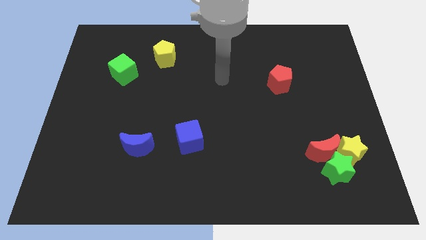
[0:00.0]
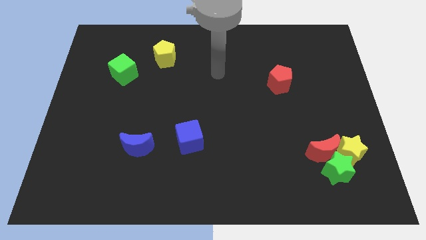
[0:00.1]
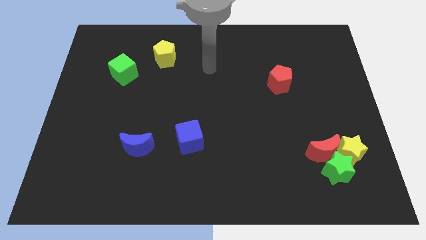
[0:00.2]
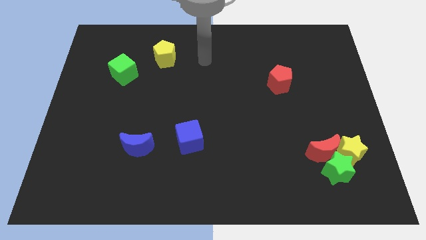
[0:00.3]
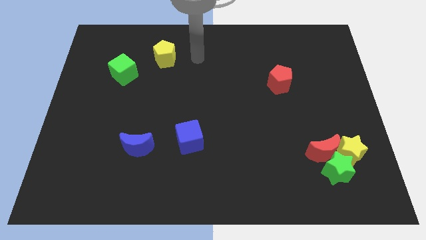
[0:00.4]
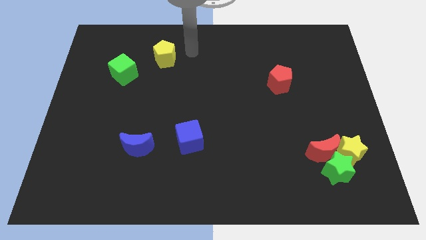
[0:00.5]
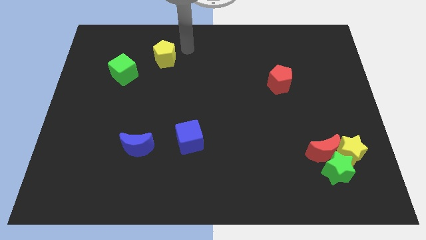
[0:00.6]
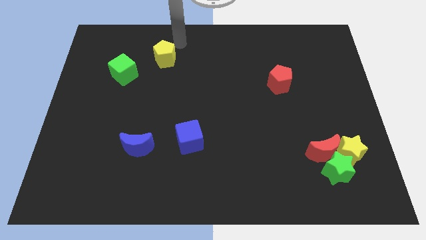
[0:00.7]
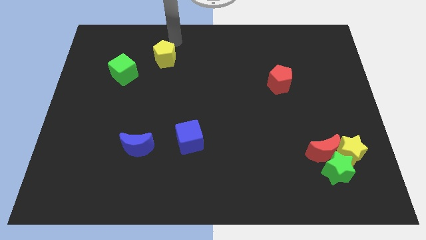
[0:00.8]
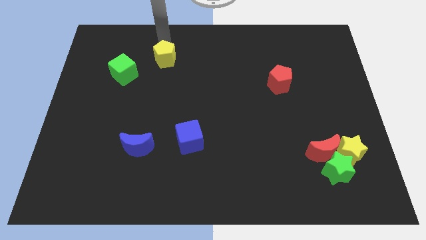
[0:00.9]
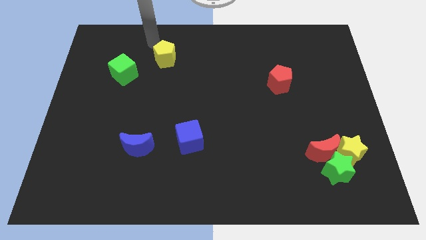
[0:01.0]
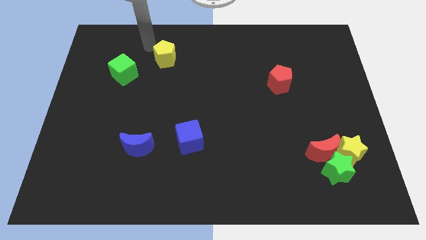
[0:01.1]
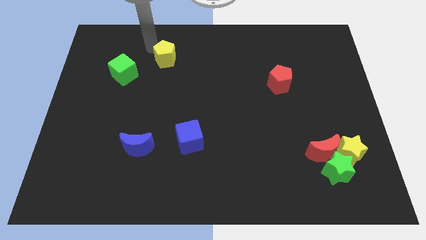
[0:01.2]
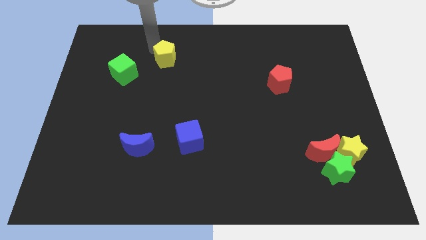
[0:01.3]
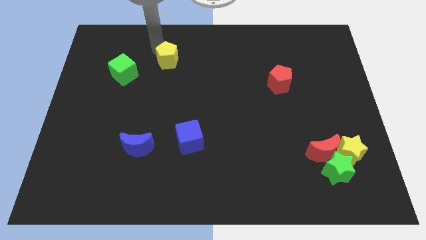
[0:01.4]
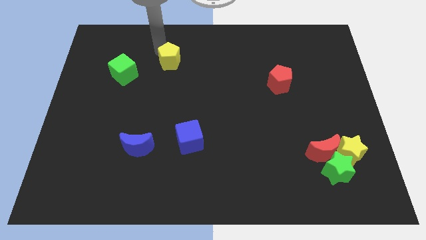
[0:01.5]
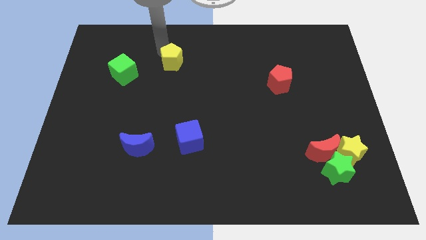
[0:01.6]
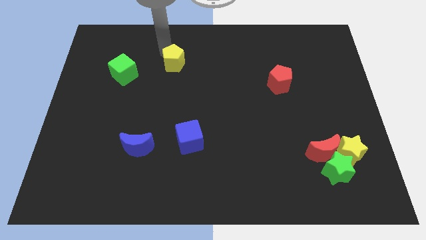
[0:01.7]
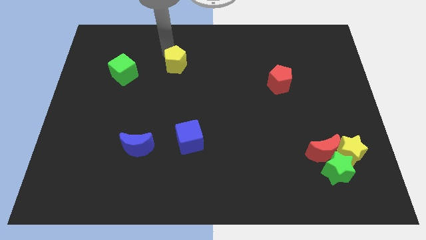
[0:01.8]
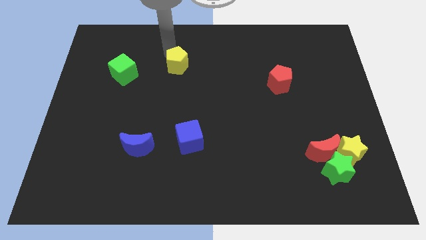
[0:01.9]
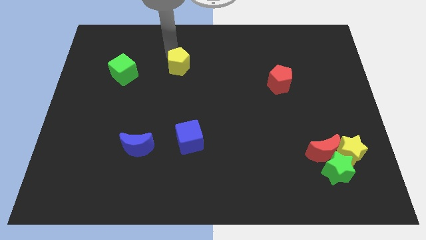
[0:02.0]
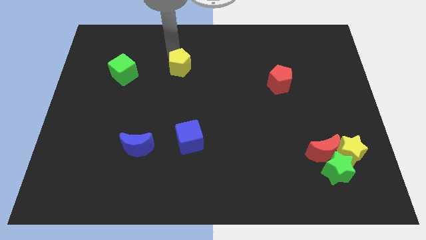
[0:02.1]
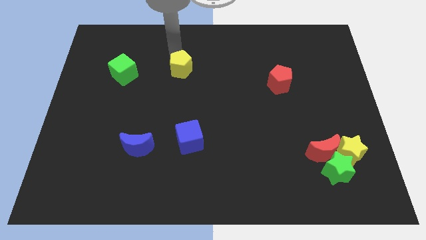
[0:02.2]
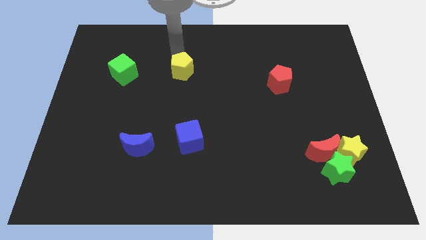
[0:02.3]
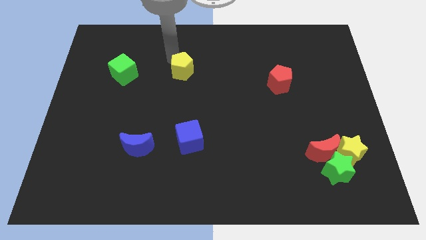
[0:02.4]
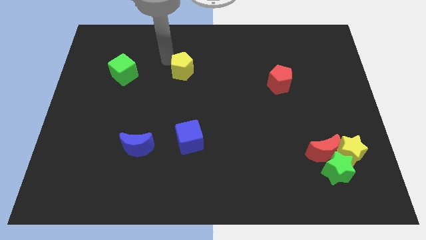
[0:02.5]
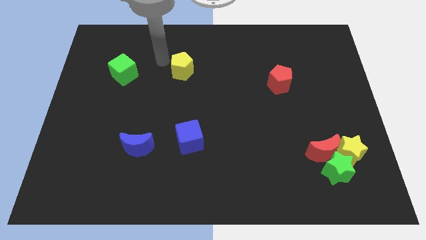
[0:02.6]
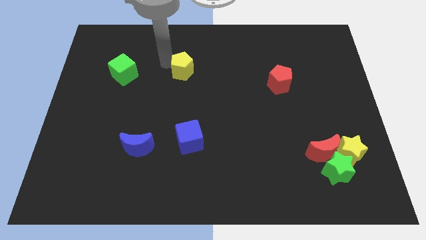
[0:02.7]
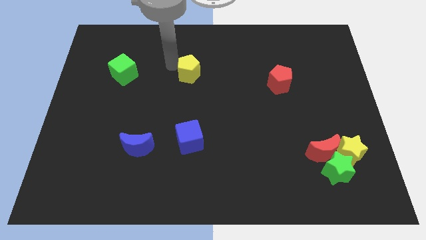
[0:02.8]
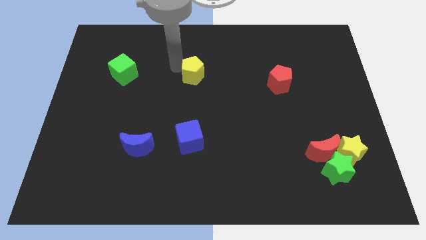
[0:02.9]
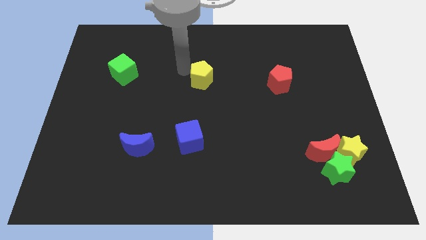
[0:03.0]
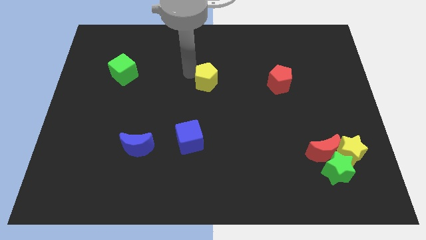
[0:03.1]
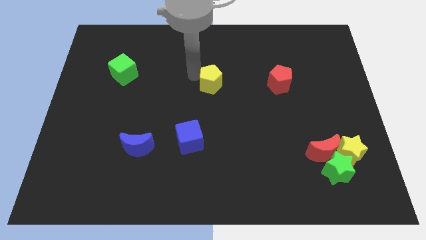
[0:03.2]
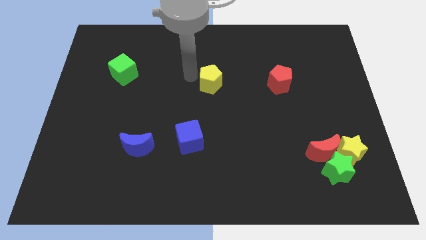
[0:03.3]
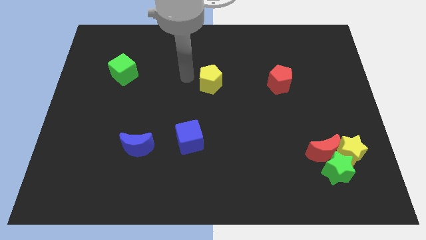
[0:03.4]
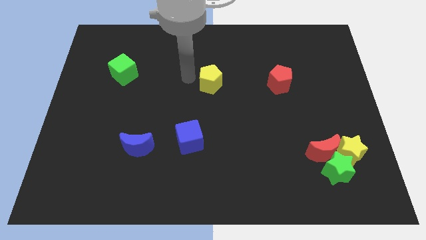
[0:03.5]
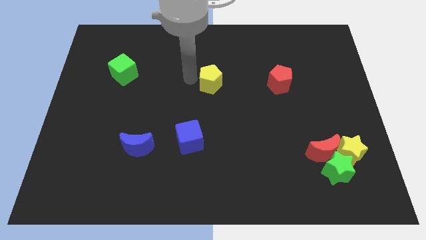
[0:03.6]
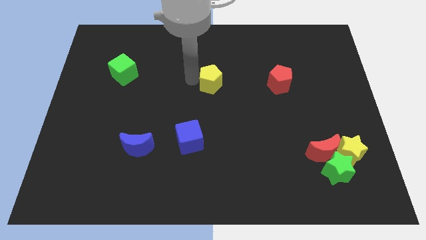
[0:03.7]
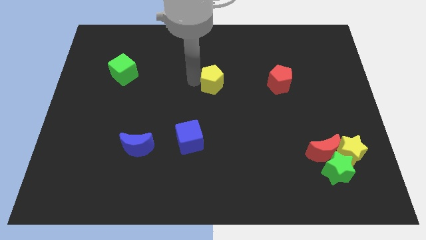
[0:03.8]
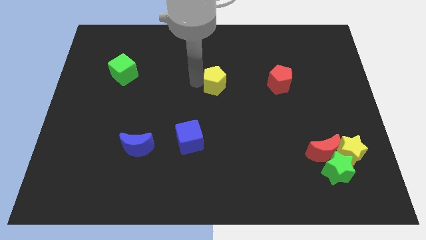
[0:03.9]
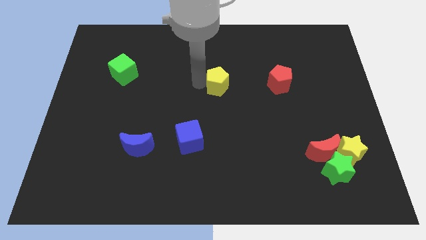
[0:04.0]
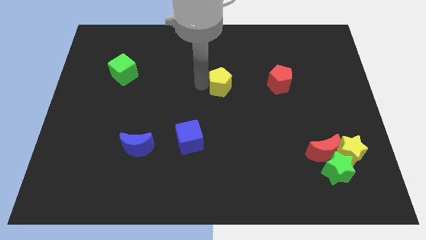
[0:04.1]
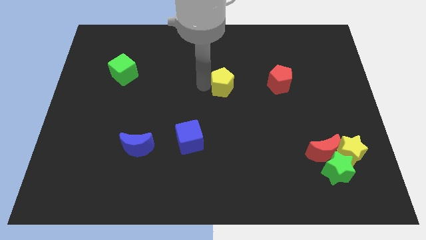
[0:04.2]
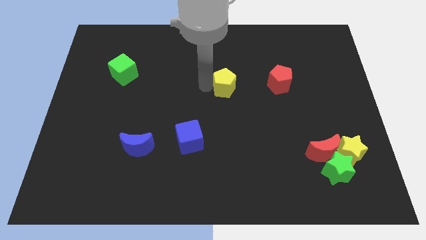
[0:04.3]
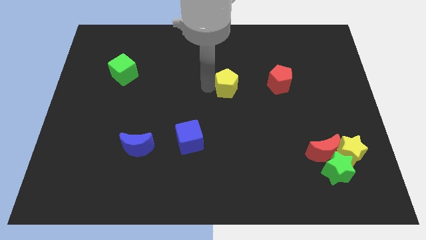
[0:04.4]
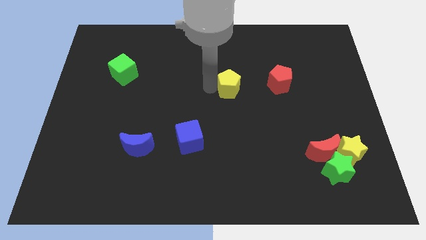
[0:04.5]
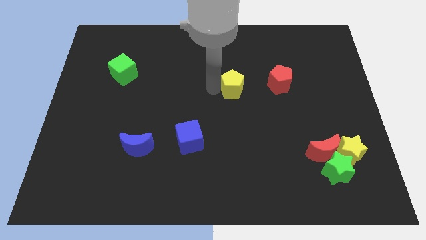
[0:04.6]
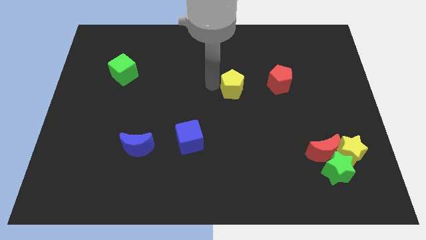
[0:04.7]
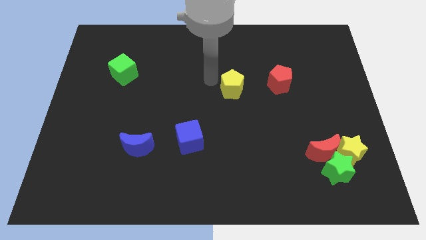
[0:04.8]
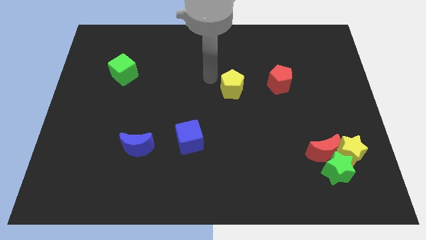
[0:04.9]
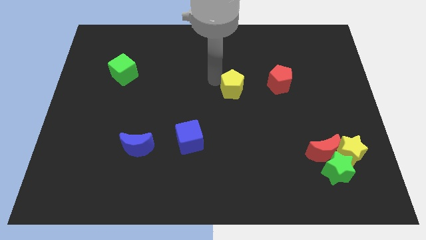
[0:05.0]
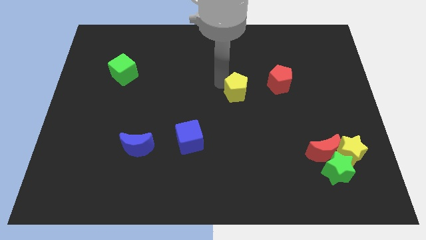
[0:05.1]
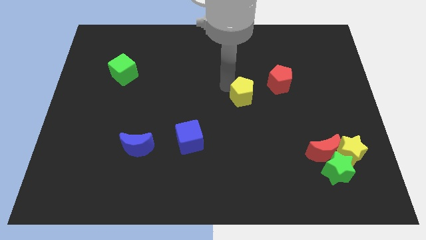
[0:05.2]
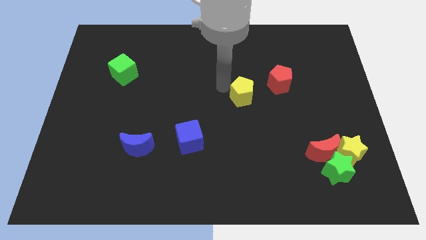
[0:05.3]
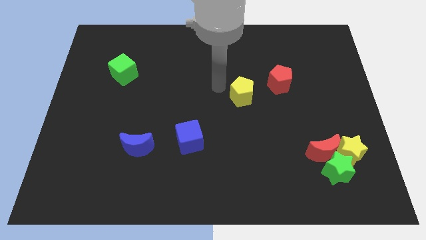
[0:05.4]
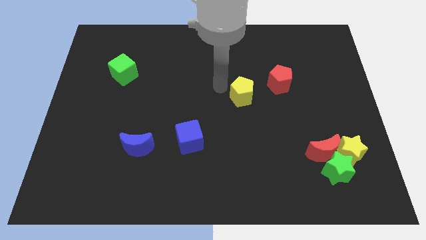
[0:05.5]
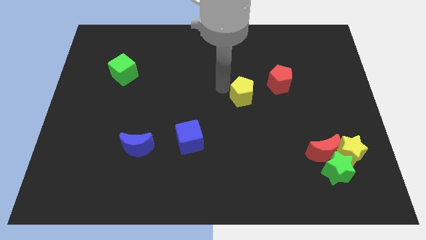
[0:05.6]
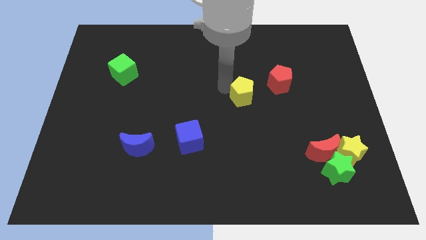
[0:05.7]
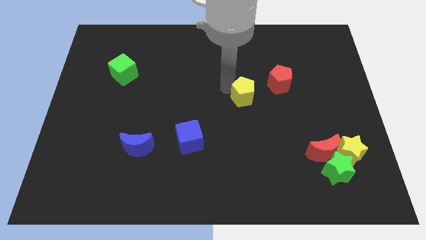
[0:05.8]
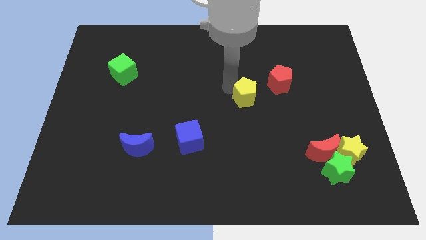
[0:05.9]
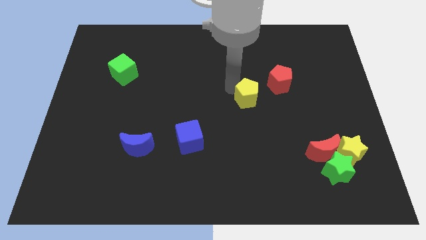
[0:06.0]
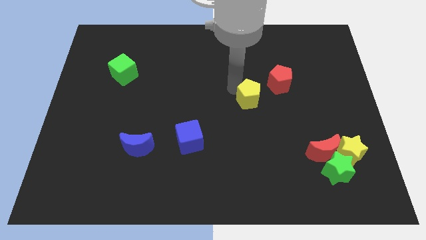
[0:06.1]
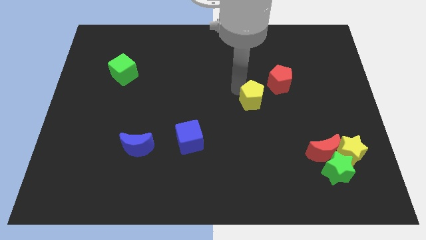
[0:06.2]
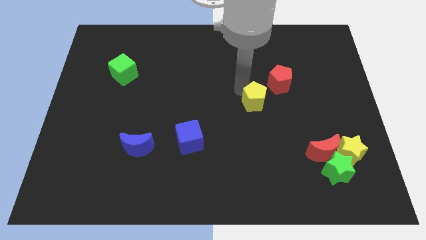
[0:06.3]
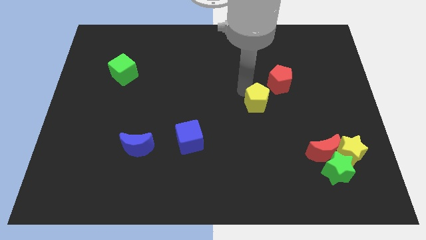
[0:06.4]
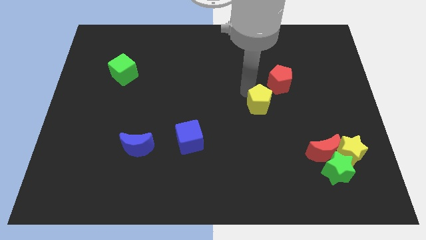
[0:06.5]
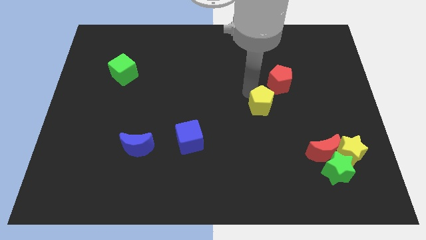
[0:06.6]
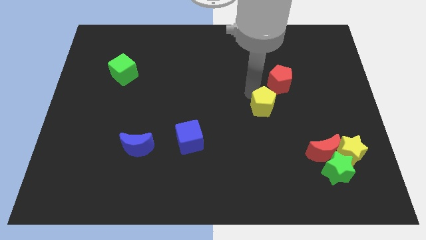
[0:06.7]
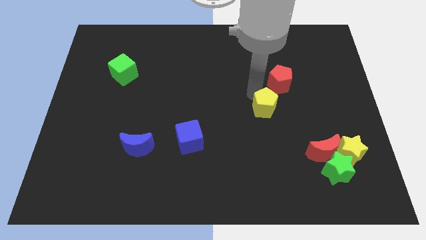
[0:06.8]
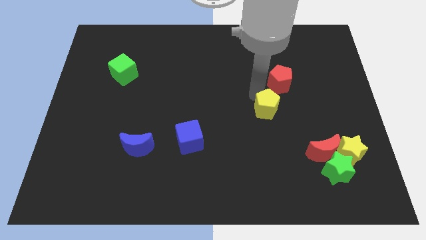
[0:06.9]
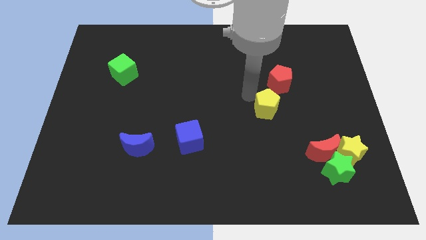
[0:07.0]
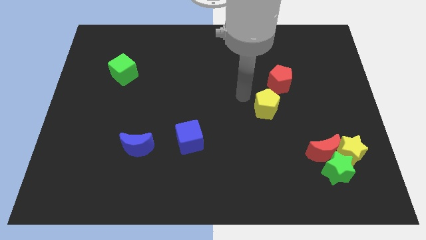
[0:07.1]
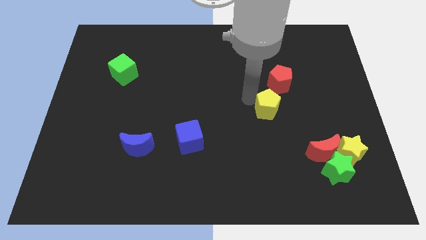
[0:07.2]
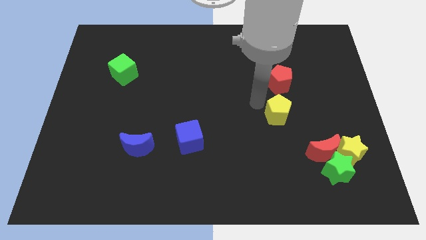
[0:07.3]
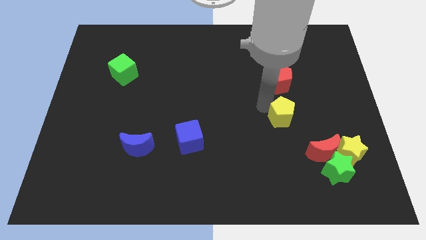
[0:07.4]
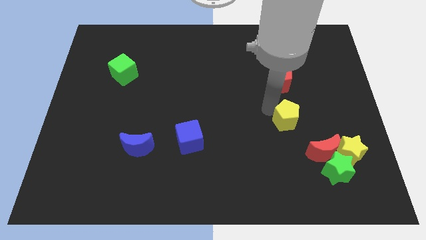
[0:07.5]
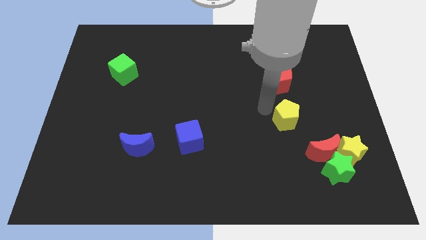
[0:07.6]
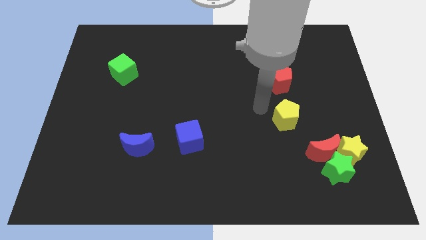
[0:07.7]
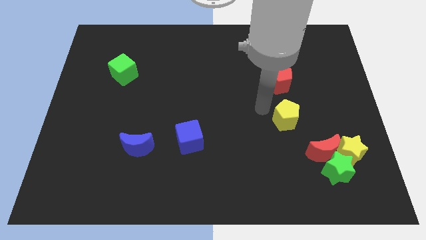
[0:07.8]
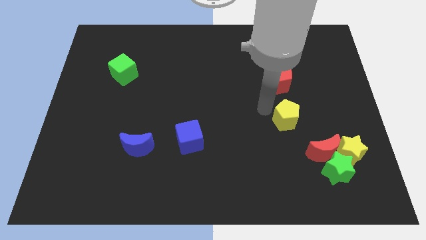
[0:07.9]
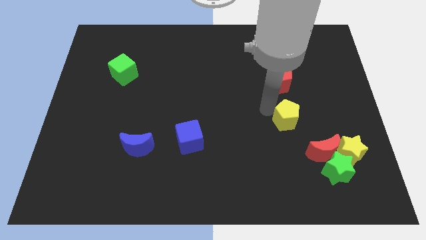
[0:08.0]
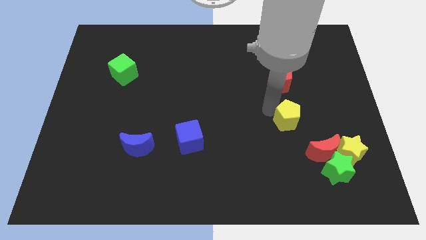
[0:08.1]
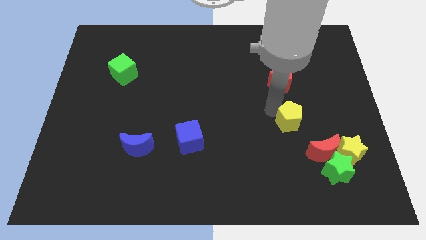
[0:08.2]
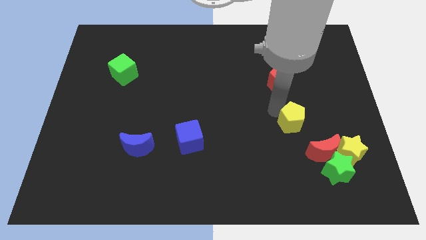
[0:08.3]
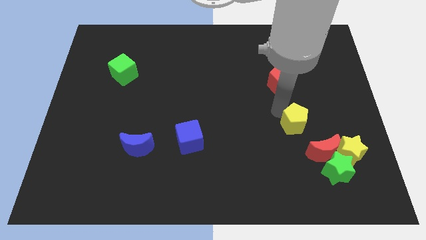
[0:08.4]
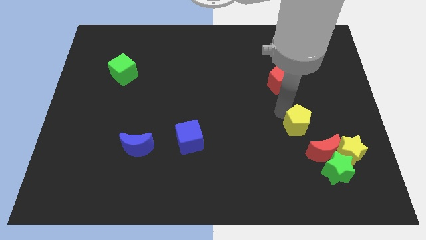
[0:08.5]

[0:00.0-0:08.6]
slide the yellow pentagon to the top left side of the yellow star
